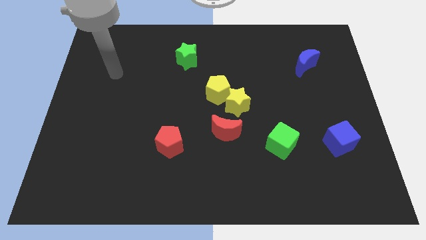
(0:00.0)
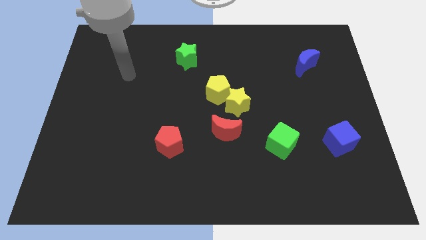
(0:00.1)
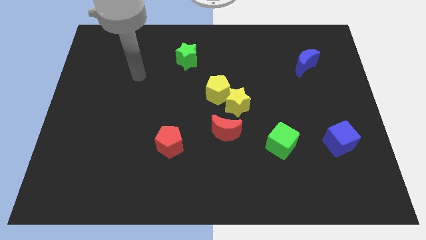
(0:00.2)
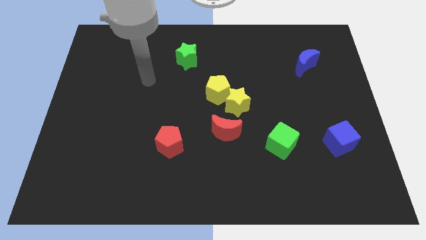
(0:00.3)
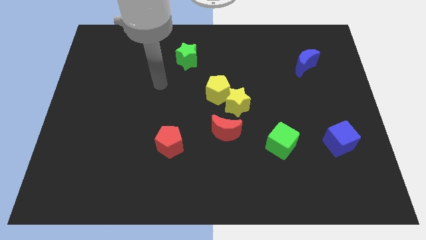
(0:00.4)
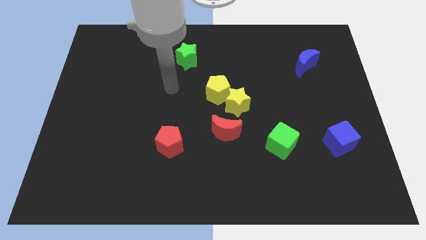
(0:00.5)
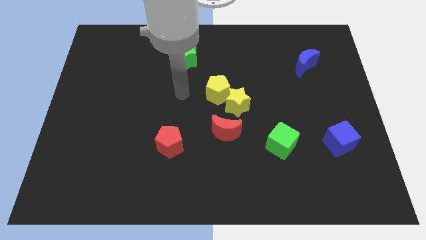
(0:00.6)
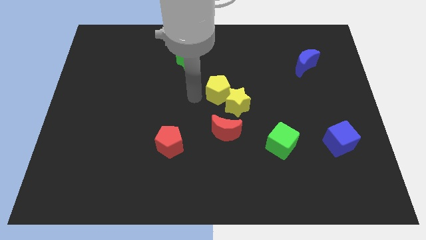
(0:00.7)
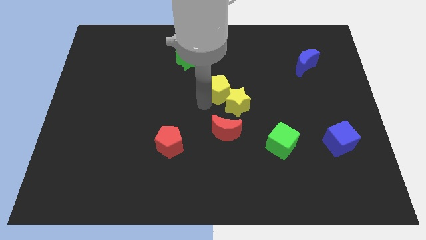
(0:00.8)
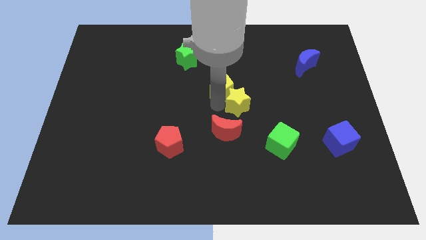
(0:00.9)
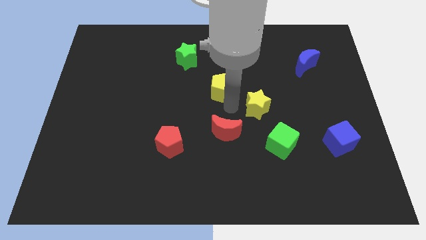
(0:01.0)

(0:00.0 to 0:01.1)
separate the yellow pentagon from the yellow star

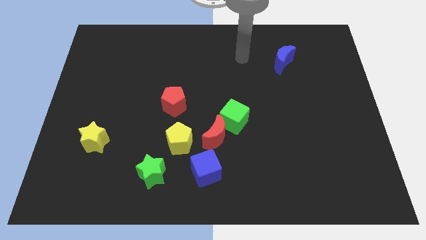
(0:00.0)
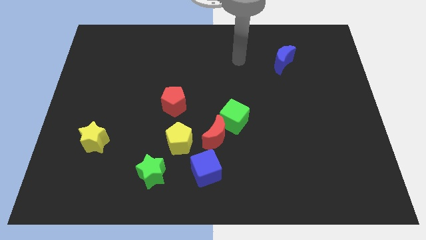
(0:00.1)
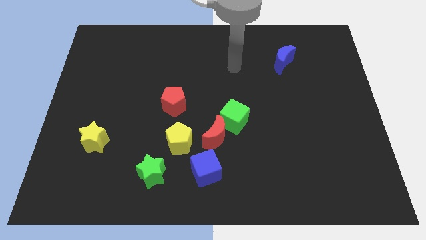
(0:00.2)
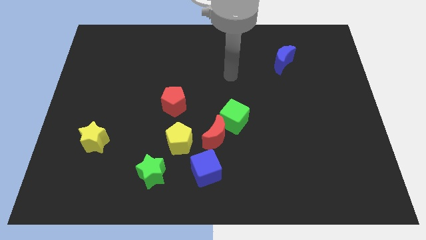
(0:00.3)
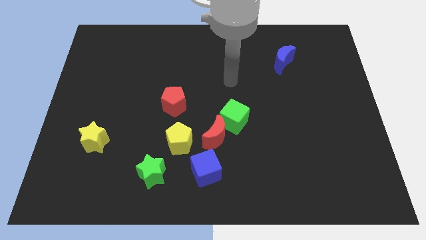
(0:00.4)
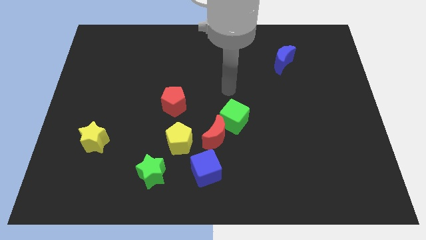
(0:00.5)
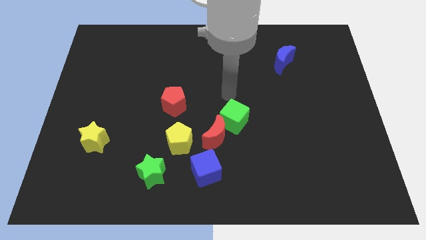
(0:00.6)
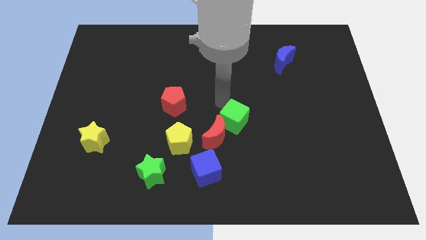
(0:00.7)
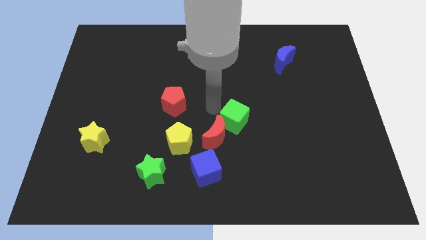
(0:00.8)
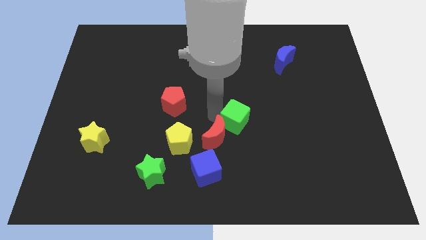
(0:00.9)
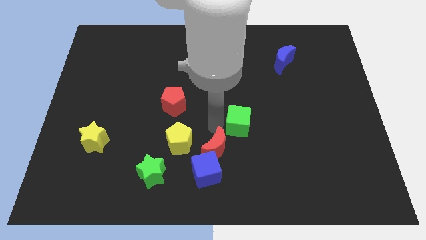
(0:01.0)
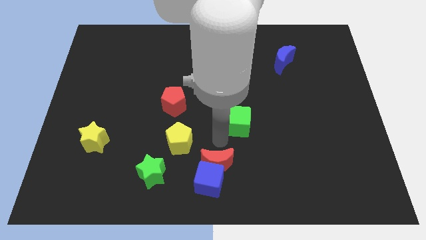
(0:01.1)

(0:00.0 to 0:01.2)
separate the green cube from the red moon

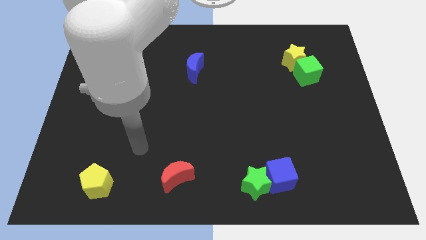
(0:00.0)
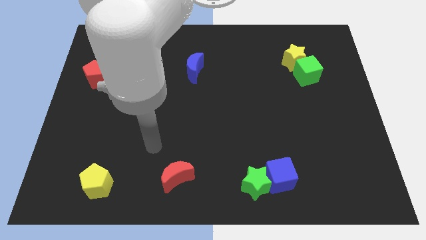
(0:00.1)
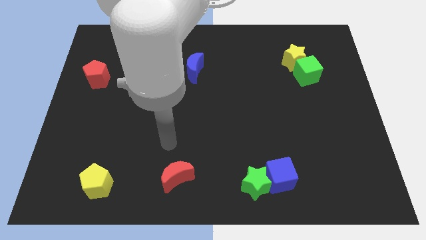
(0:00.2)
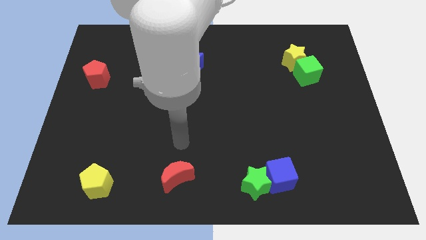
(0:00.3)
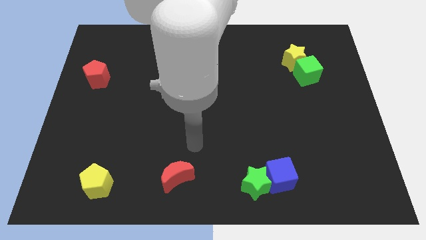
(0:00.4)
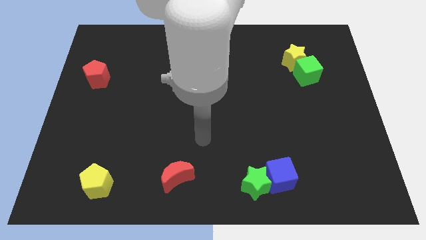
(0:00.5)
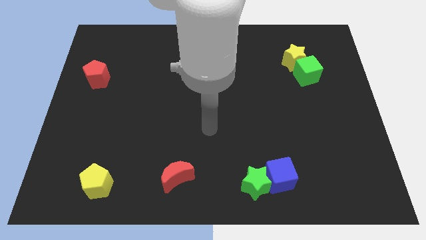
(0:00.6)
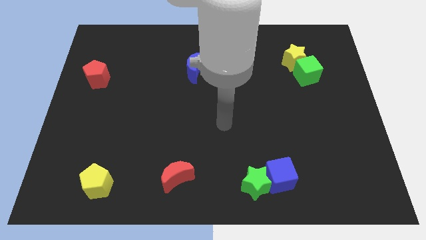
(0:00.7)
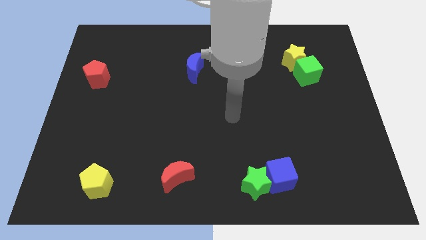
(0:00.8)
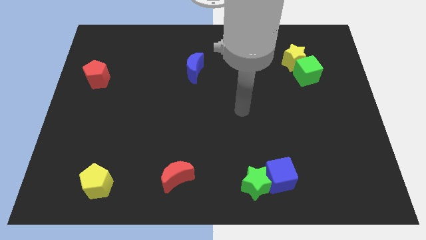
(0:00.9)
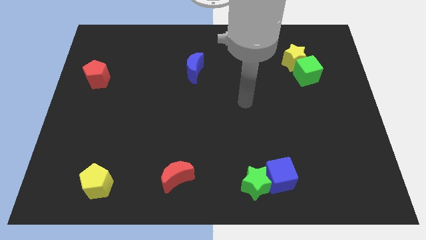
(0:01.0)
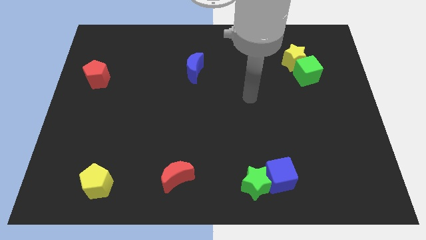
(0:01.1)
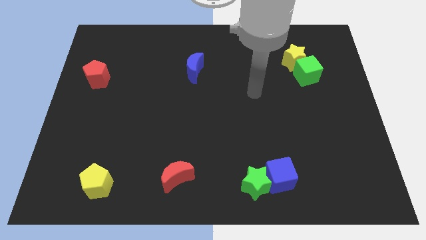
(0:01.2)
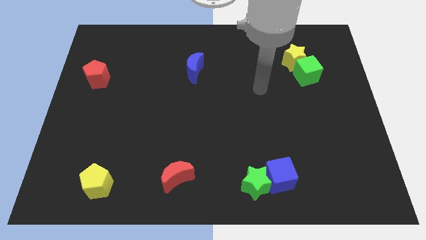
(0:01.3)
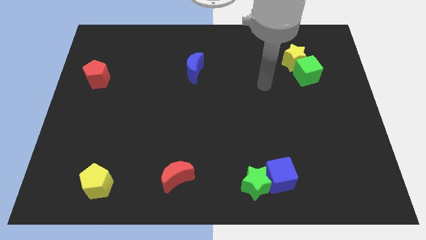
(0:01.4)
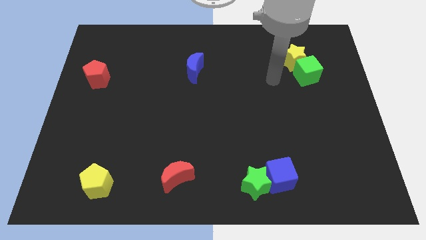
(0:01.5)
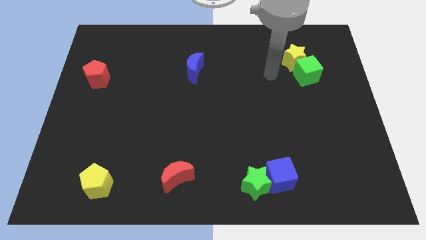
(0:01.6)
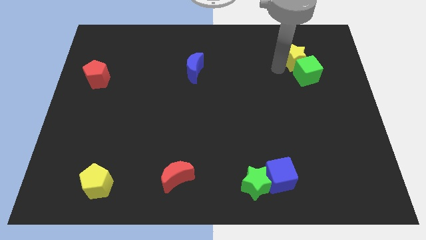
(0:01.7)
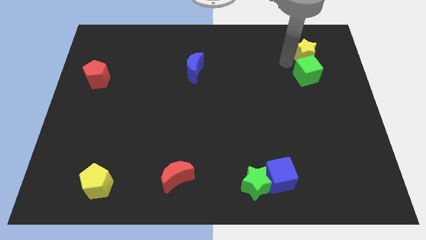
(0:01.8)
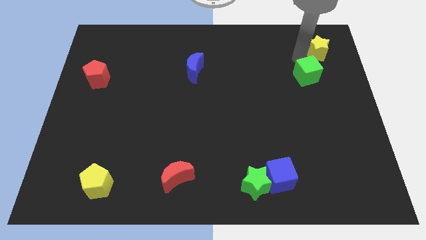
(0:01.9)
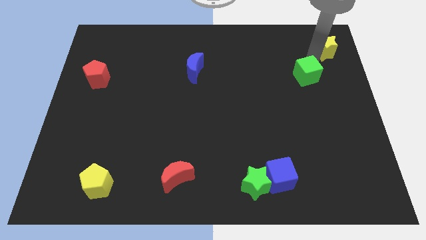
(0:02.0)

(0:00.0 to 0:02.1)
pull the green cube apart from the yellow star

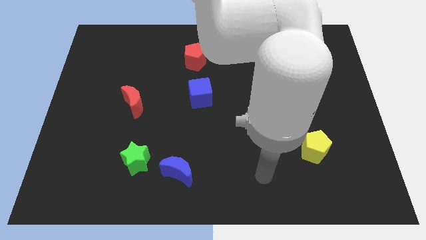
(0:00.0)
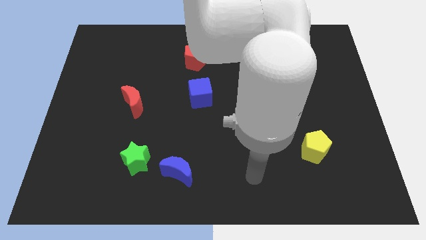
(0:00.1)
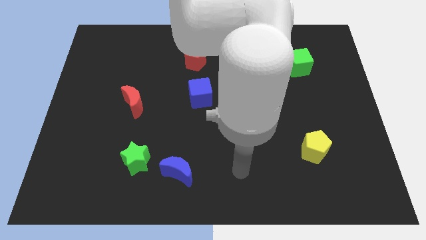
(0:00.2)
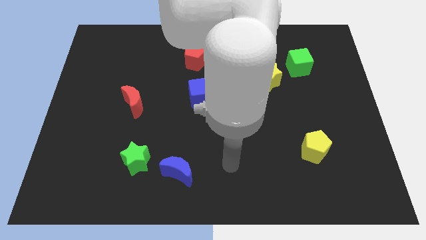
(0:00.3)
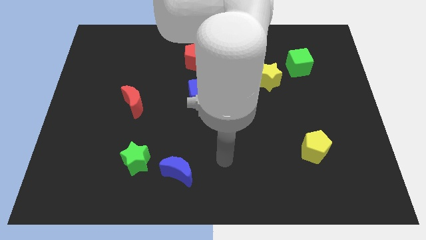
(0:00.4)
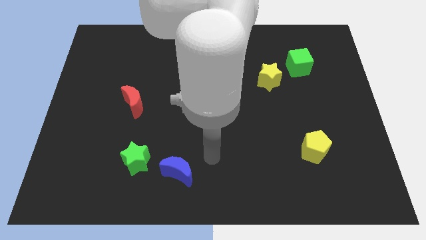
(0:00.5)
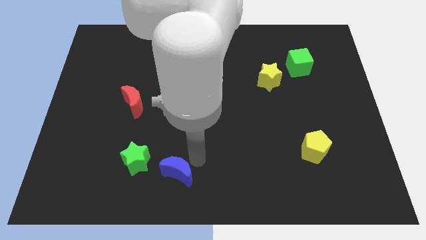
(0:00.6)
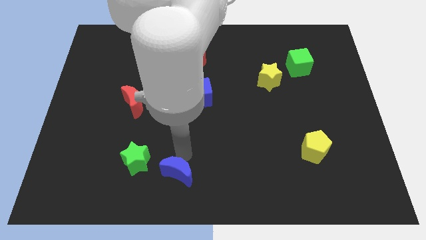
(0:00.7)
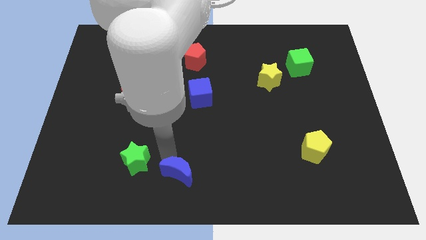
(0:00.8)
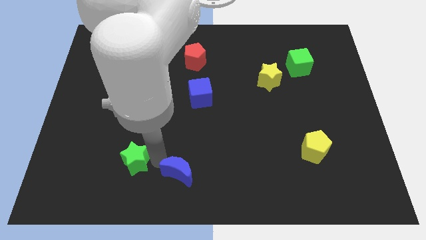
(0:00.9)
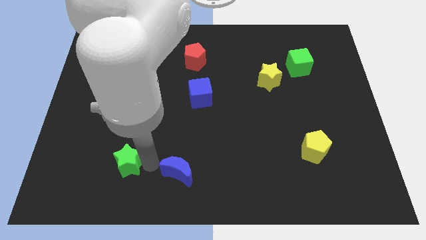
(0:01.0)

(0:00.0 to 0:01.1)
pull the blue moon apart from the green star

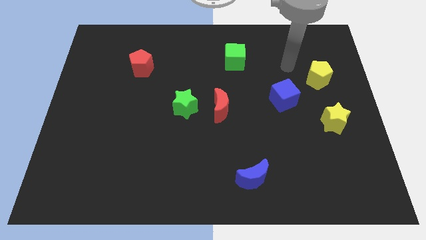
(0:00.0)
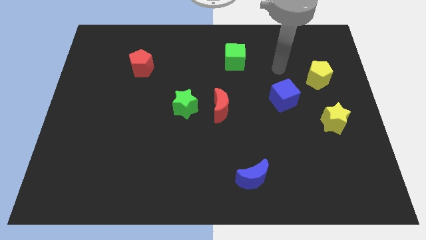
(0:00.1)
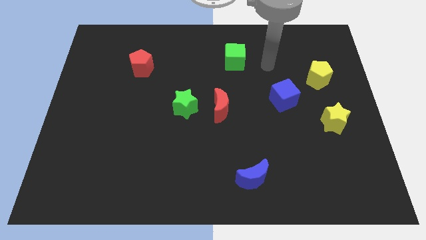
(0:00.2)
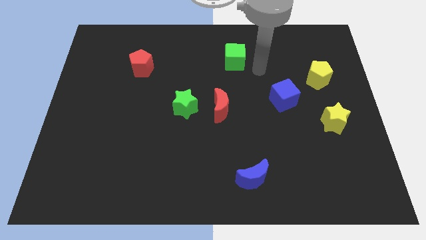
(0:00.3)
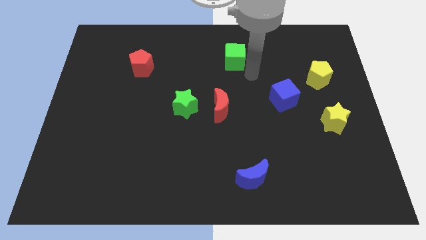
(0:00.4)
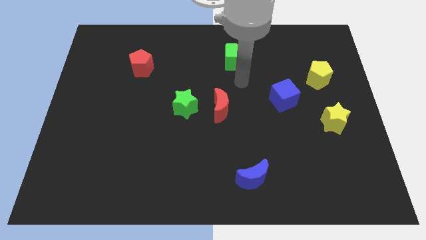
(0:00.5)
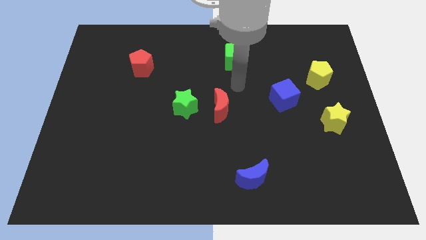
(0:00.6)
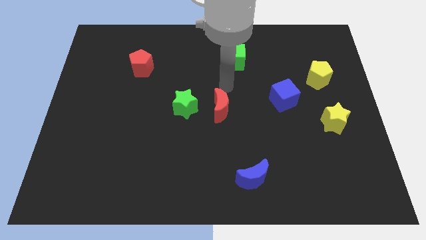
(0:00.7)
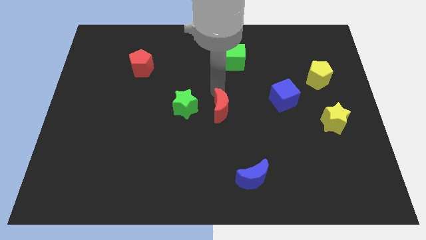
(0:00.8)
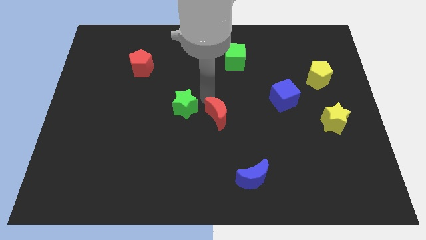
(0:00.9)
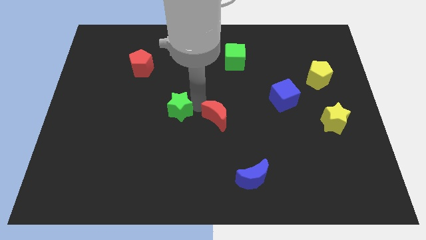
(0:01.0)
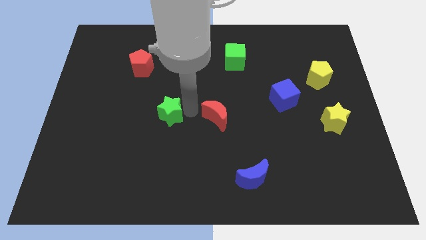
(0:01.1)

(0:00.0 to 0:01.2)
move the red moon away from the green star

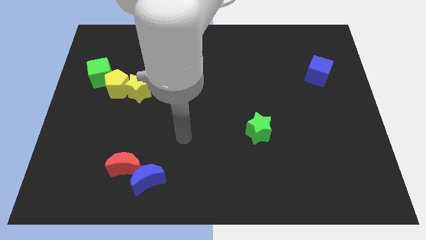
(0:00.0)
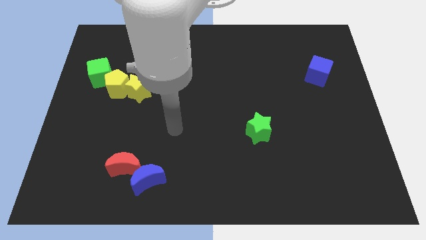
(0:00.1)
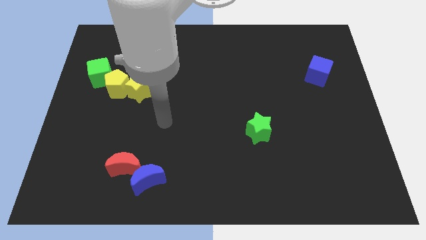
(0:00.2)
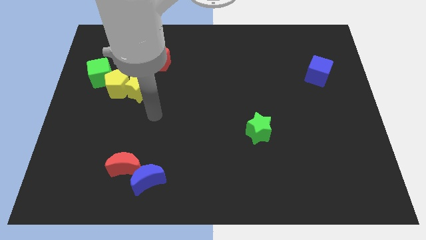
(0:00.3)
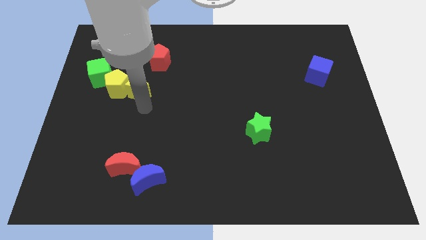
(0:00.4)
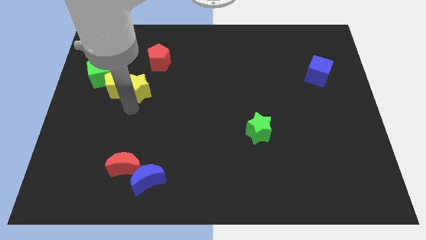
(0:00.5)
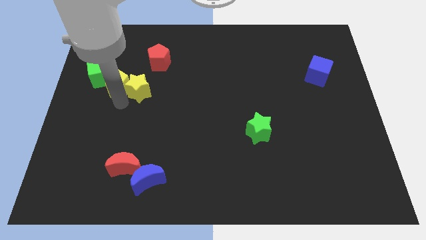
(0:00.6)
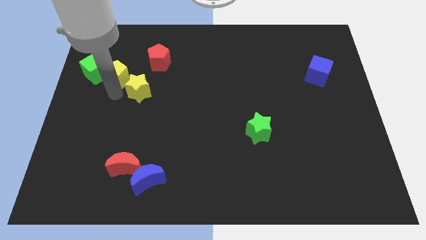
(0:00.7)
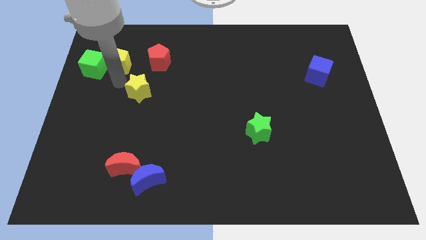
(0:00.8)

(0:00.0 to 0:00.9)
move the yellow star away from the yellow pentagon

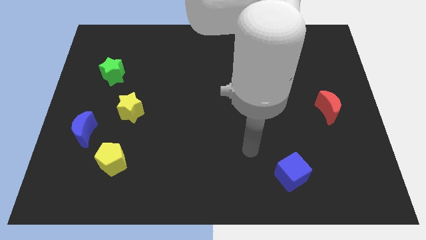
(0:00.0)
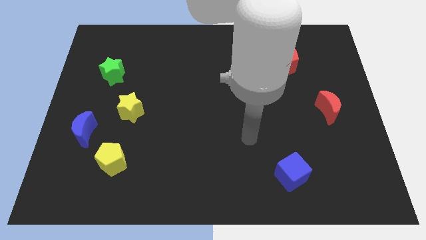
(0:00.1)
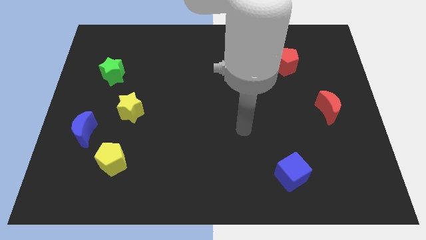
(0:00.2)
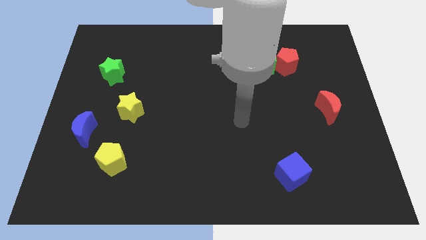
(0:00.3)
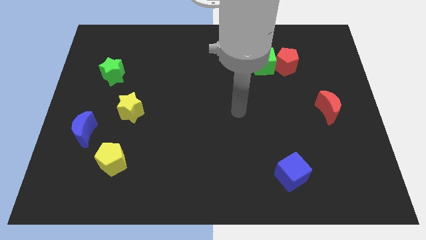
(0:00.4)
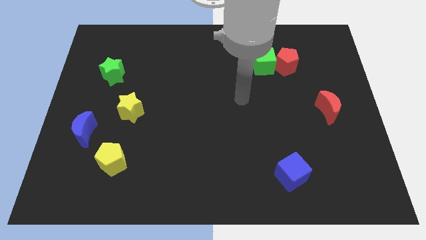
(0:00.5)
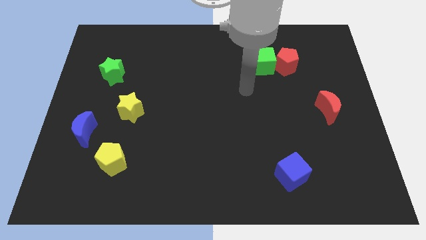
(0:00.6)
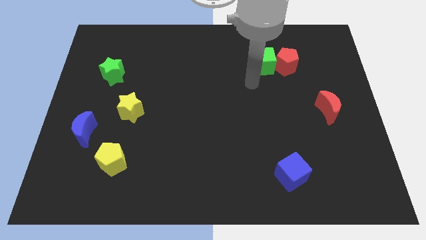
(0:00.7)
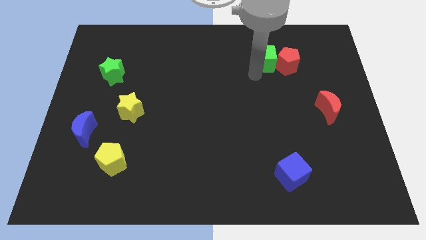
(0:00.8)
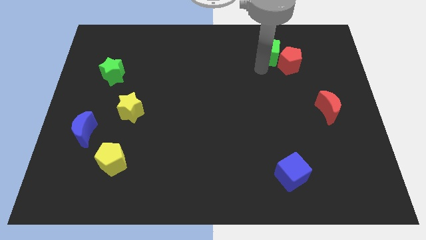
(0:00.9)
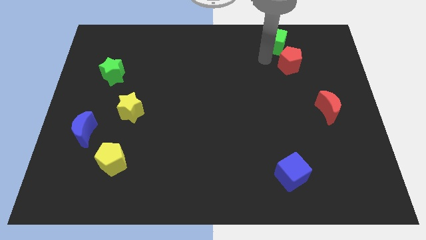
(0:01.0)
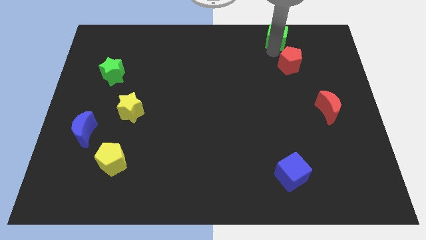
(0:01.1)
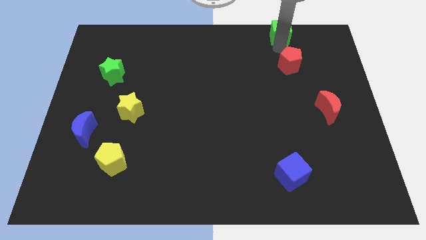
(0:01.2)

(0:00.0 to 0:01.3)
move the red pentagon away from the green cube

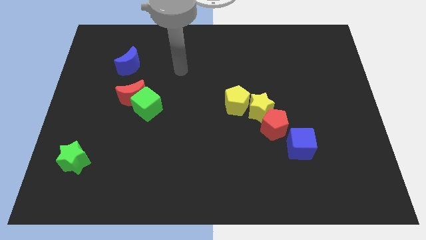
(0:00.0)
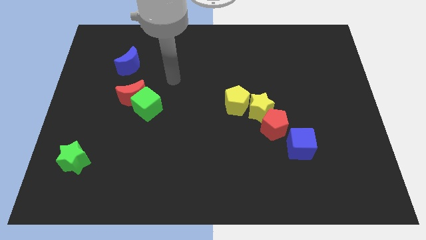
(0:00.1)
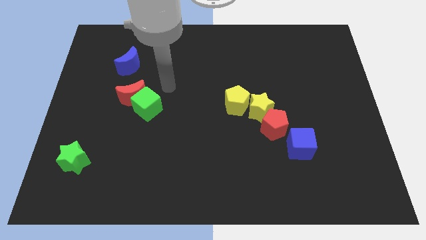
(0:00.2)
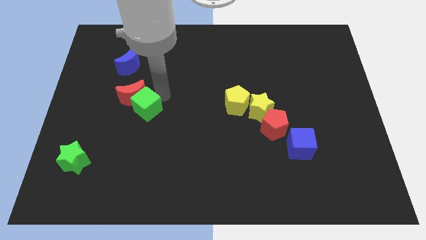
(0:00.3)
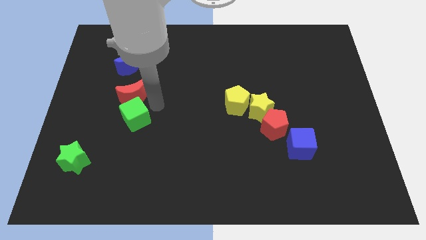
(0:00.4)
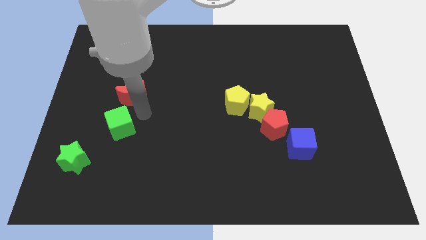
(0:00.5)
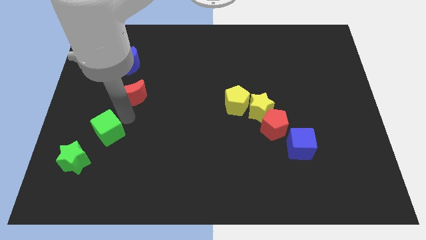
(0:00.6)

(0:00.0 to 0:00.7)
pull the red moon apart from the green cube
